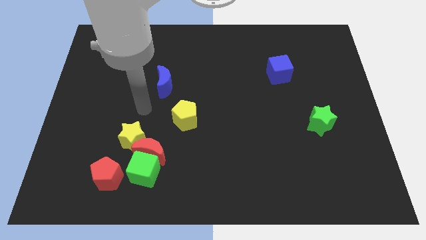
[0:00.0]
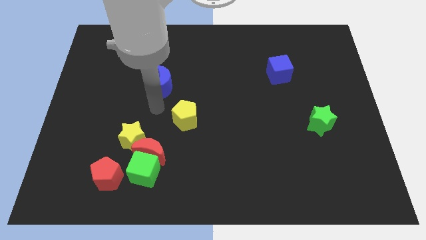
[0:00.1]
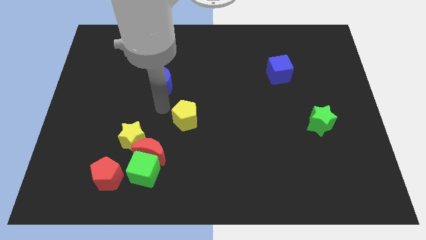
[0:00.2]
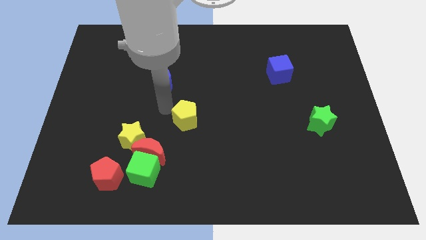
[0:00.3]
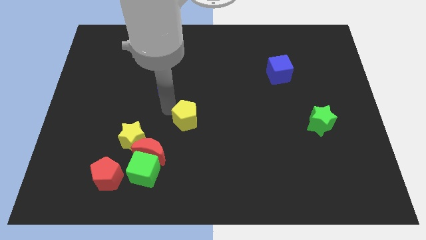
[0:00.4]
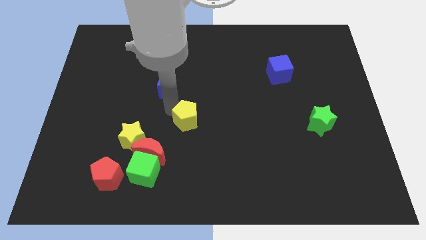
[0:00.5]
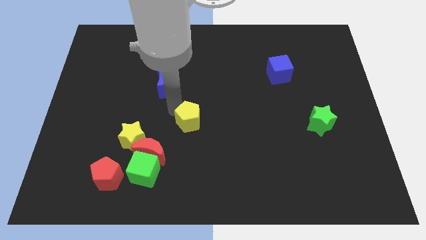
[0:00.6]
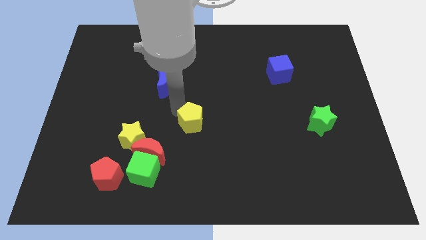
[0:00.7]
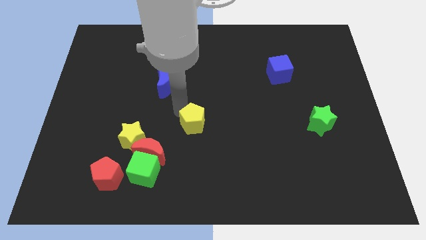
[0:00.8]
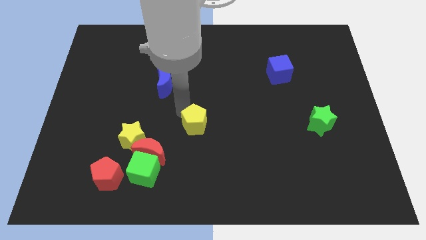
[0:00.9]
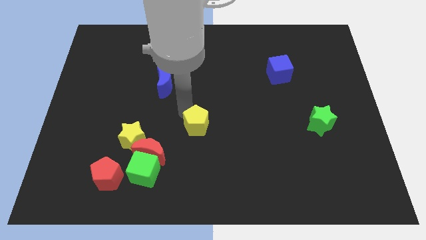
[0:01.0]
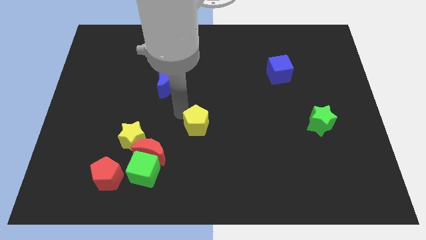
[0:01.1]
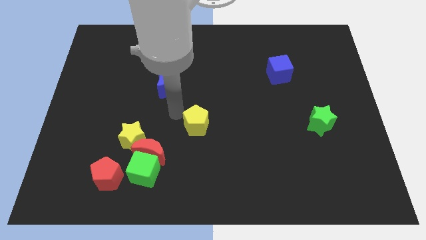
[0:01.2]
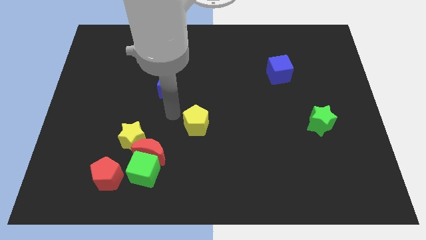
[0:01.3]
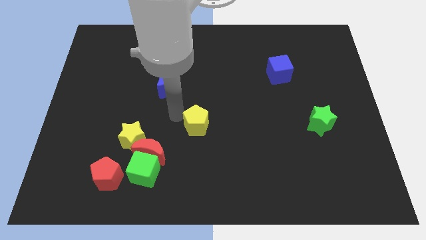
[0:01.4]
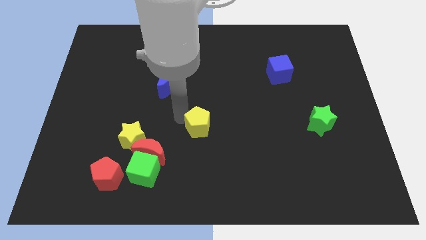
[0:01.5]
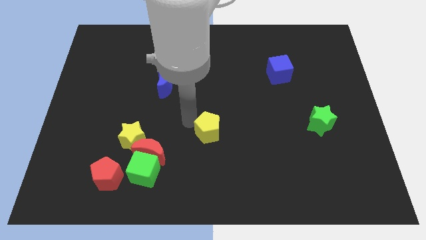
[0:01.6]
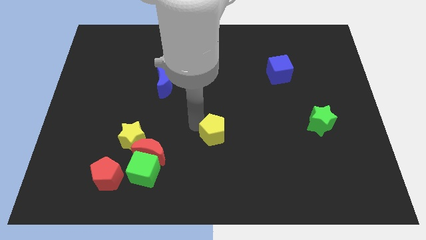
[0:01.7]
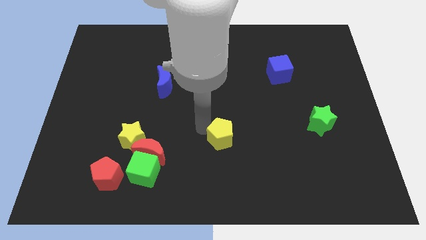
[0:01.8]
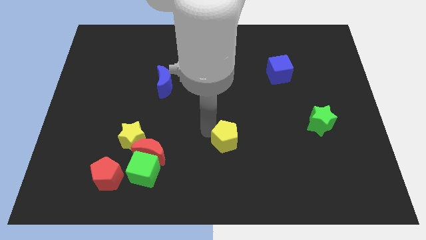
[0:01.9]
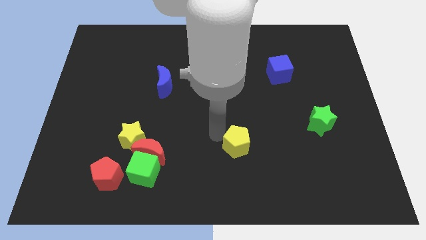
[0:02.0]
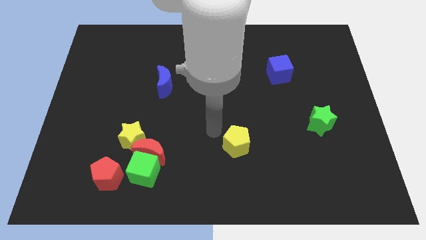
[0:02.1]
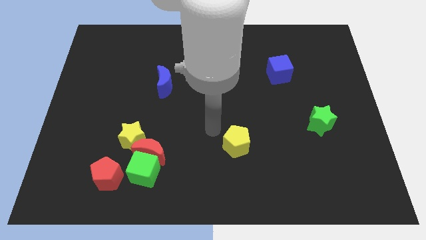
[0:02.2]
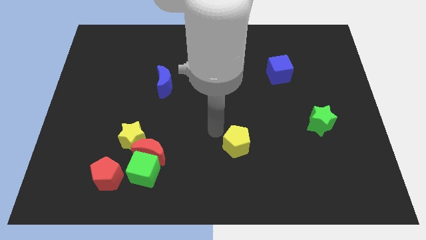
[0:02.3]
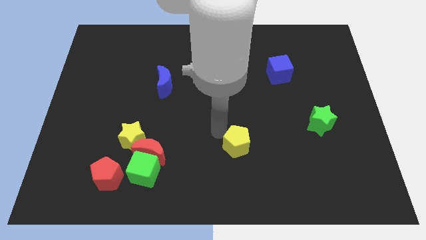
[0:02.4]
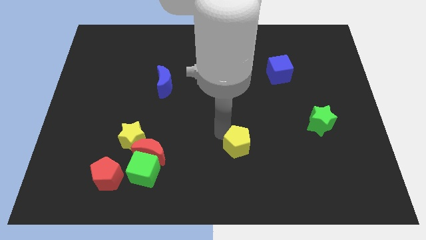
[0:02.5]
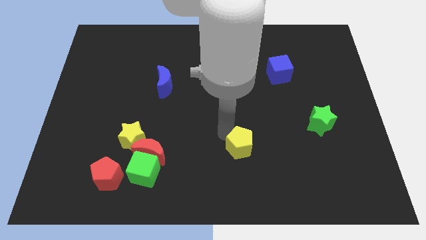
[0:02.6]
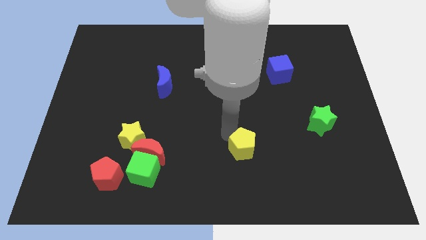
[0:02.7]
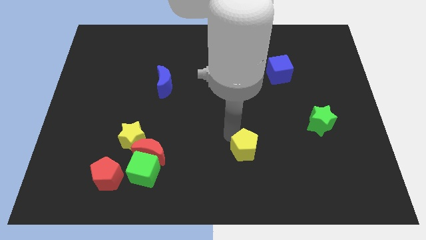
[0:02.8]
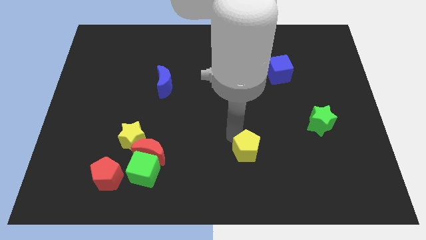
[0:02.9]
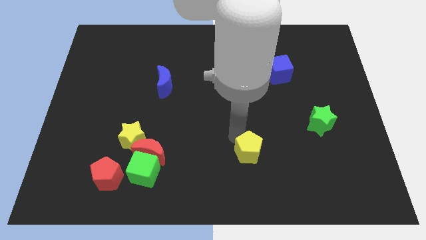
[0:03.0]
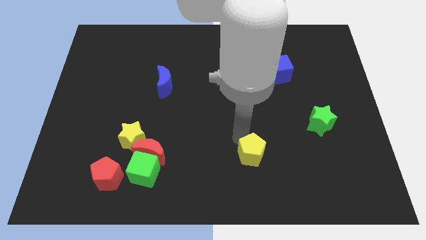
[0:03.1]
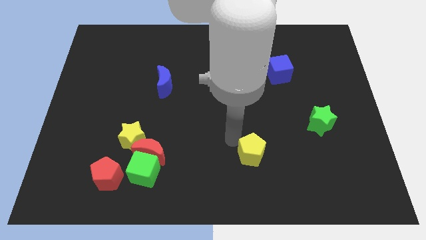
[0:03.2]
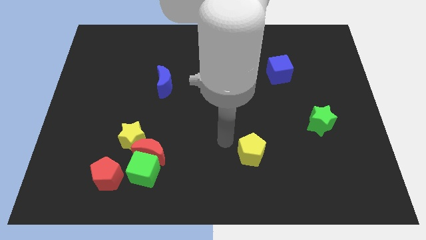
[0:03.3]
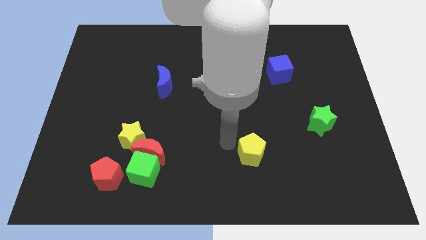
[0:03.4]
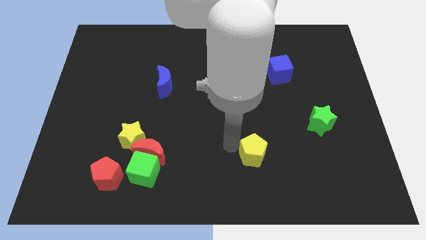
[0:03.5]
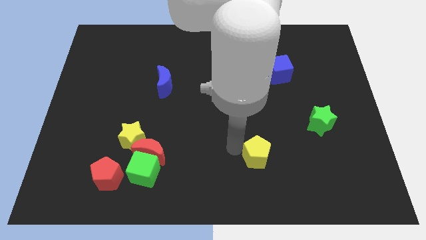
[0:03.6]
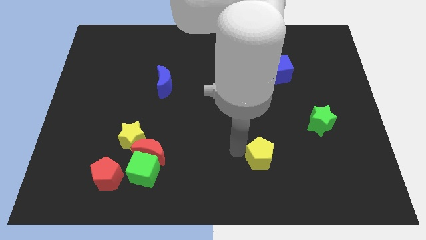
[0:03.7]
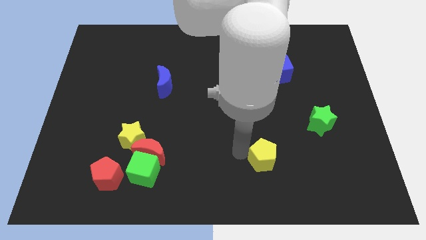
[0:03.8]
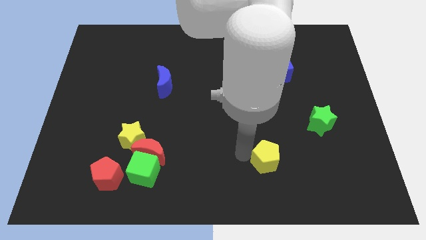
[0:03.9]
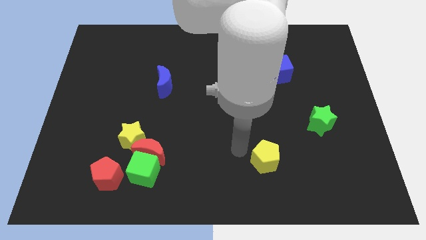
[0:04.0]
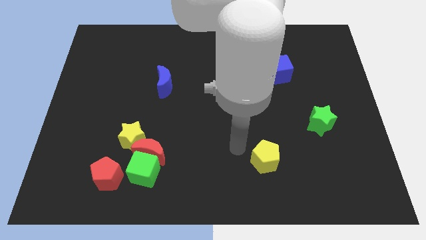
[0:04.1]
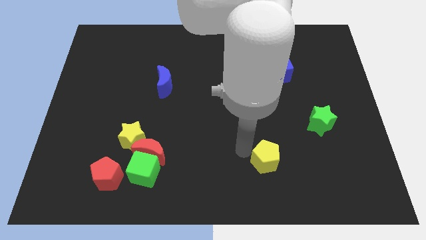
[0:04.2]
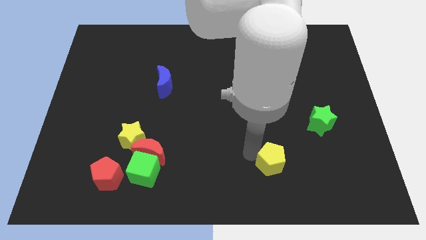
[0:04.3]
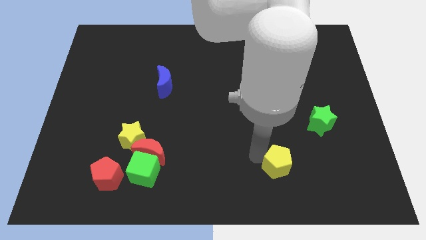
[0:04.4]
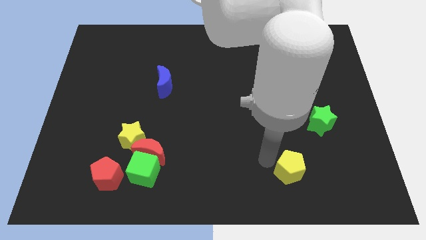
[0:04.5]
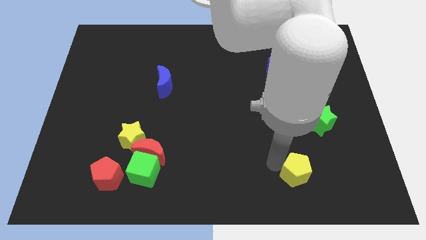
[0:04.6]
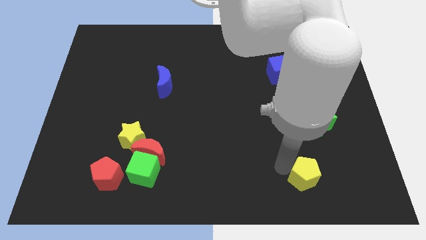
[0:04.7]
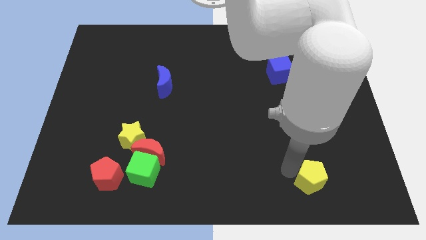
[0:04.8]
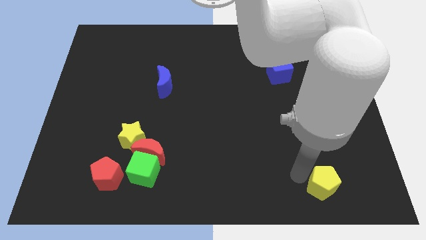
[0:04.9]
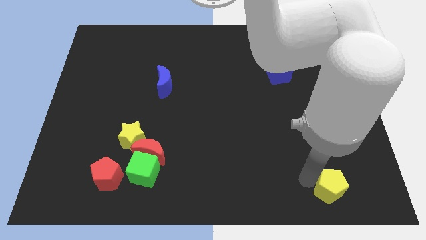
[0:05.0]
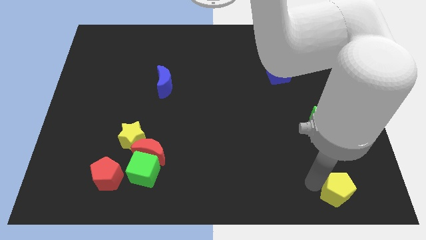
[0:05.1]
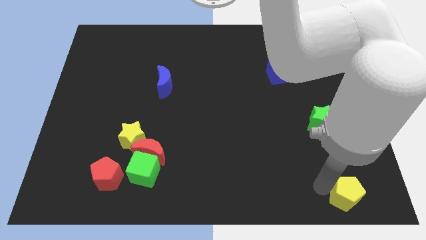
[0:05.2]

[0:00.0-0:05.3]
slide the yellow pentagon to the lower right corner

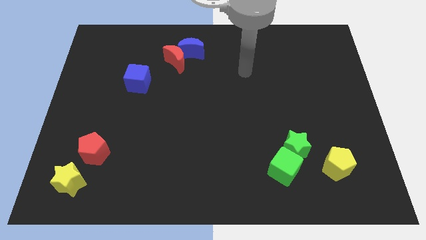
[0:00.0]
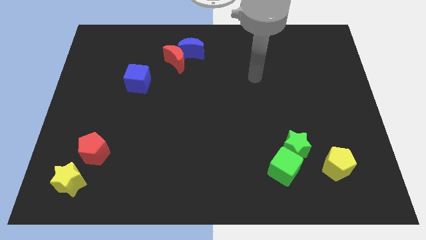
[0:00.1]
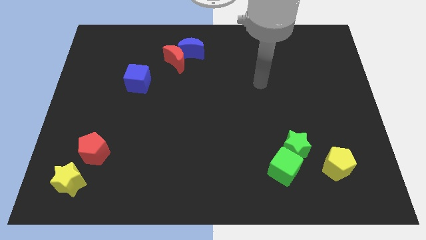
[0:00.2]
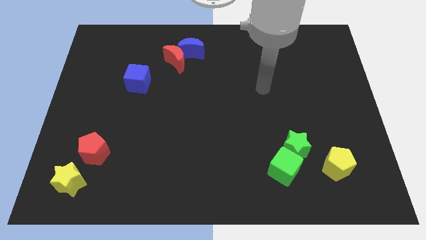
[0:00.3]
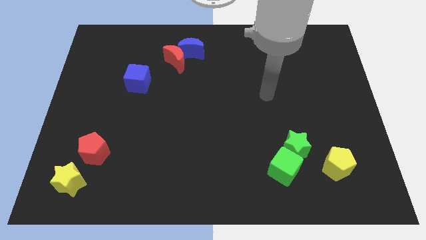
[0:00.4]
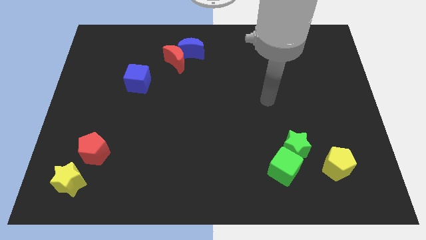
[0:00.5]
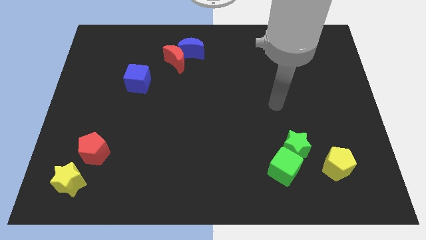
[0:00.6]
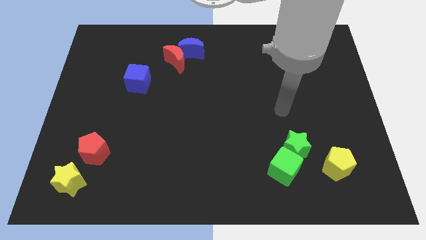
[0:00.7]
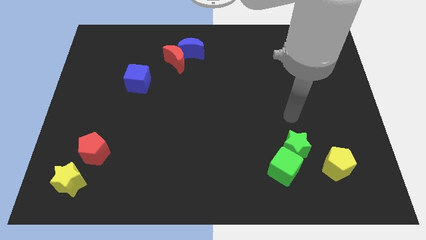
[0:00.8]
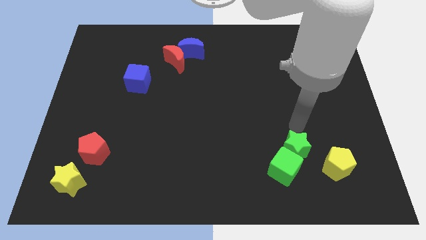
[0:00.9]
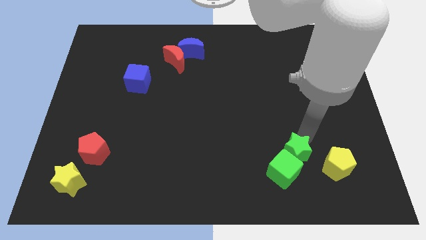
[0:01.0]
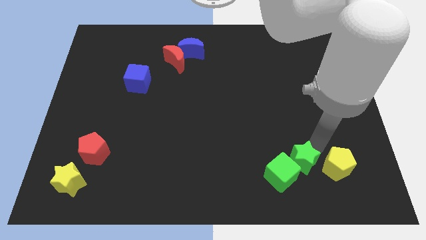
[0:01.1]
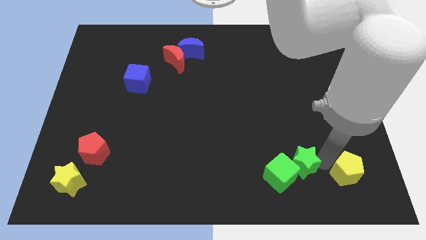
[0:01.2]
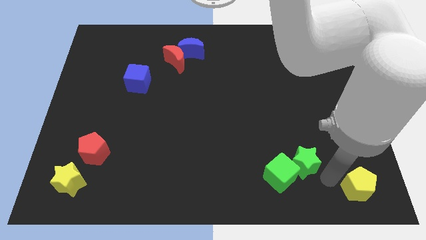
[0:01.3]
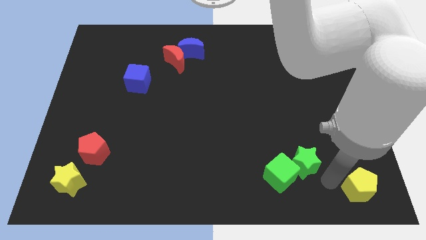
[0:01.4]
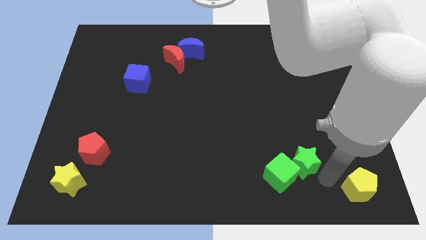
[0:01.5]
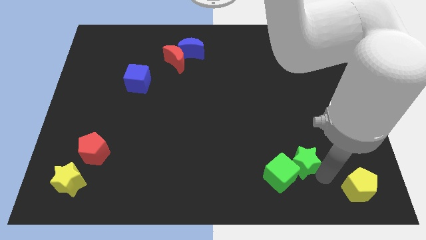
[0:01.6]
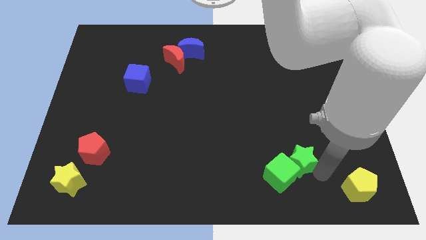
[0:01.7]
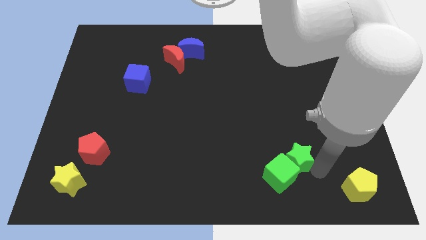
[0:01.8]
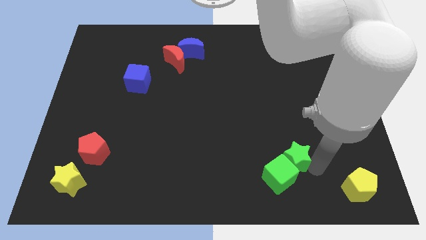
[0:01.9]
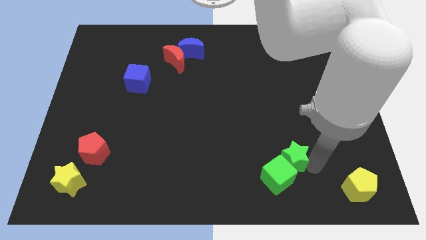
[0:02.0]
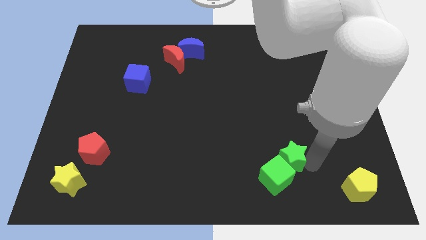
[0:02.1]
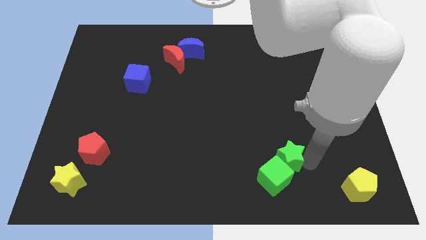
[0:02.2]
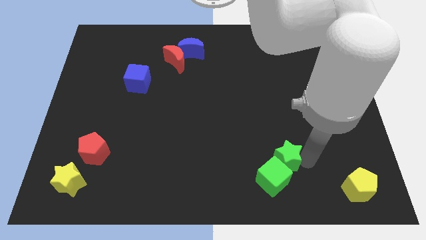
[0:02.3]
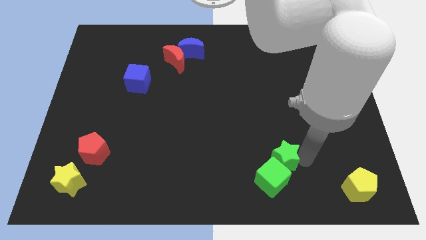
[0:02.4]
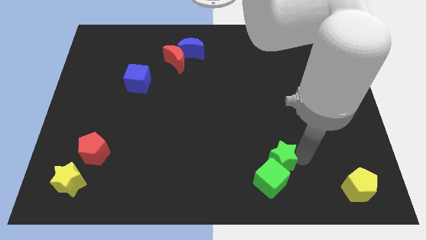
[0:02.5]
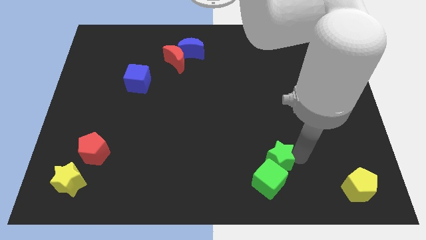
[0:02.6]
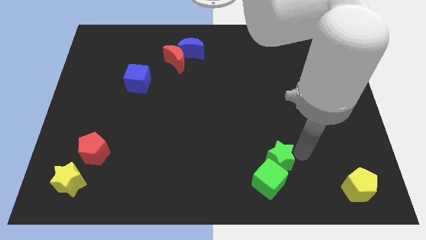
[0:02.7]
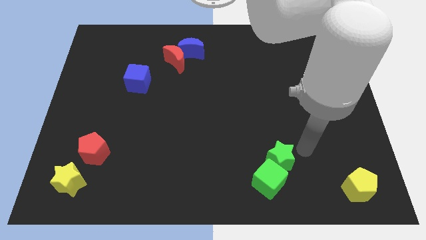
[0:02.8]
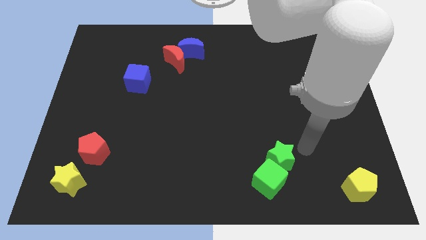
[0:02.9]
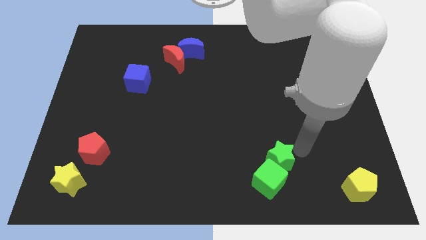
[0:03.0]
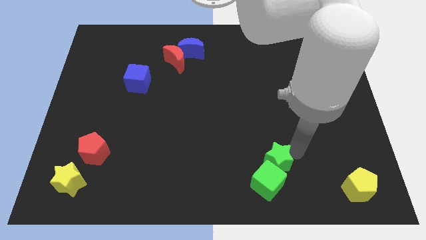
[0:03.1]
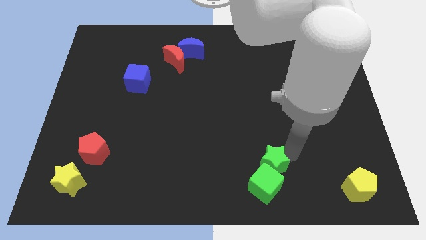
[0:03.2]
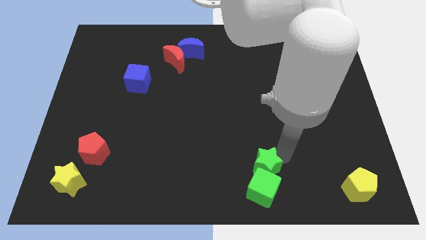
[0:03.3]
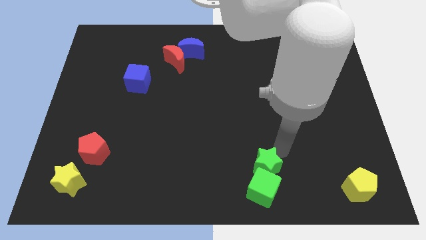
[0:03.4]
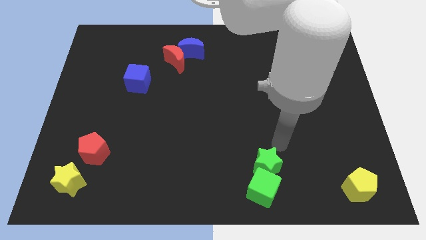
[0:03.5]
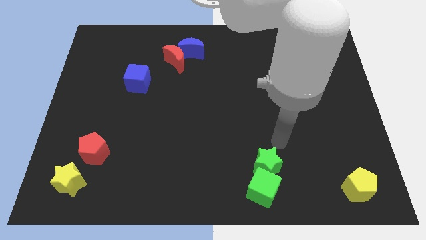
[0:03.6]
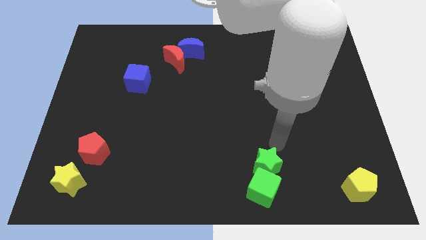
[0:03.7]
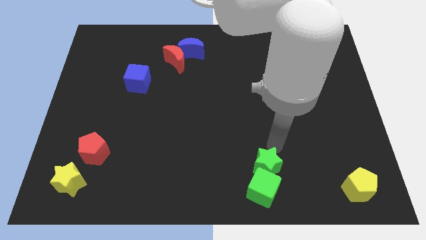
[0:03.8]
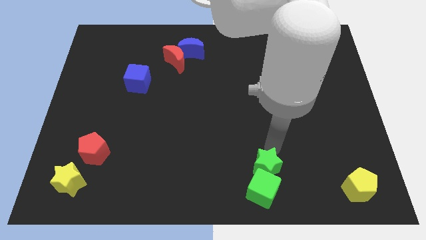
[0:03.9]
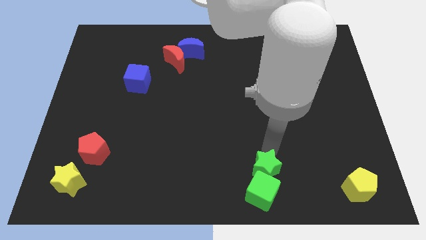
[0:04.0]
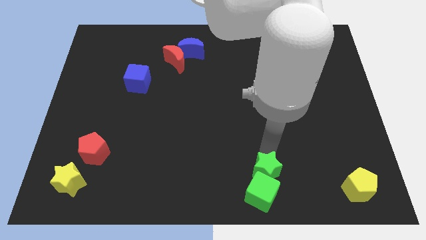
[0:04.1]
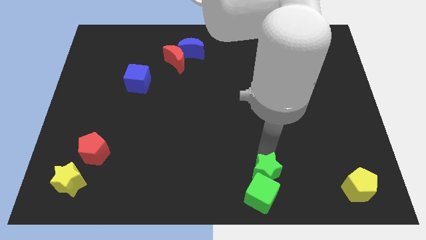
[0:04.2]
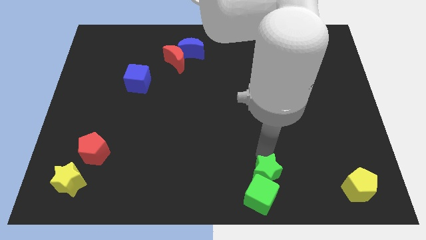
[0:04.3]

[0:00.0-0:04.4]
push the green star to the bottom
